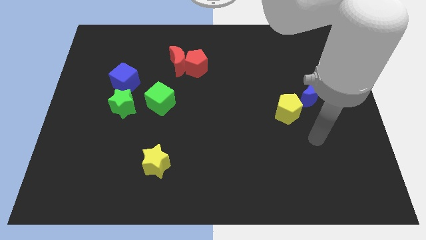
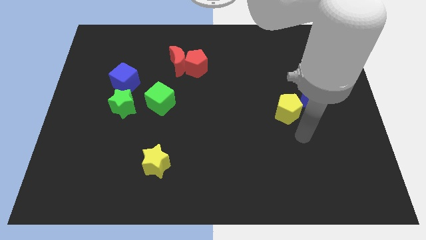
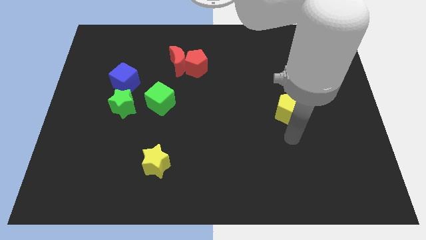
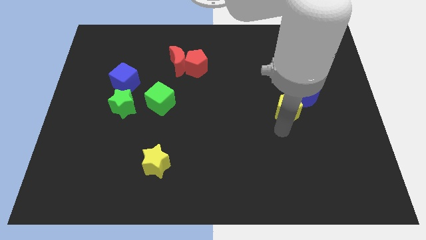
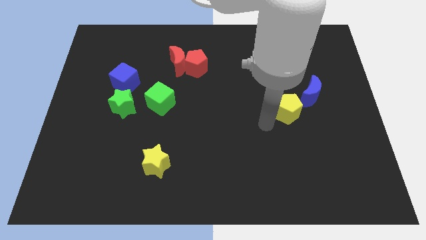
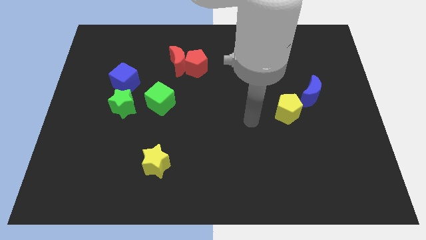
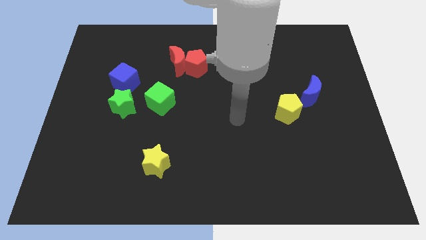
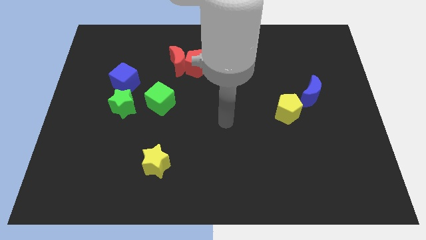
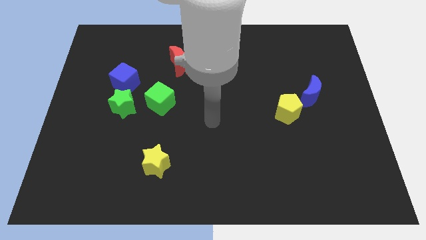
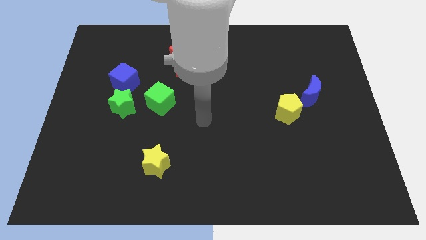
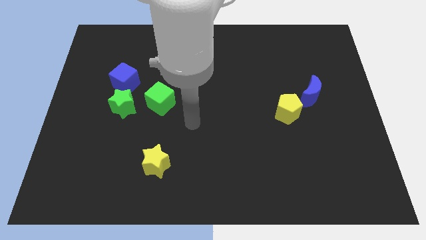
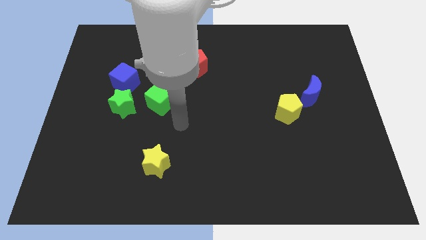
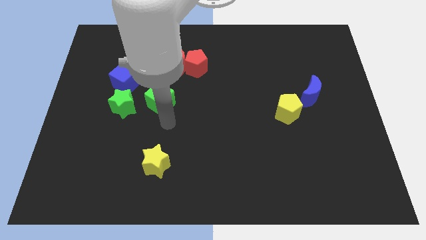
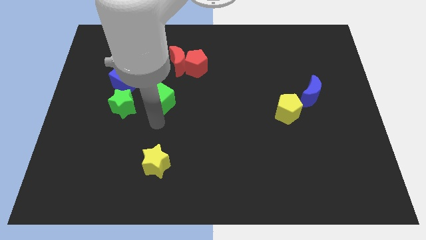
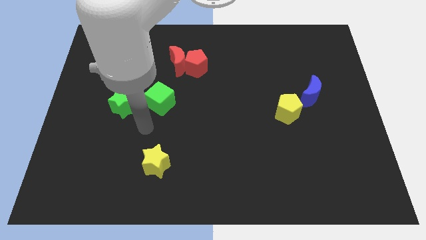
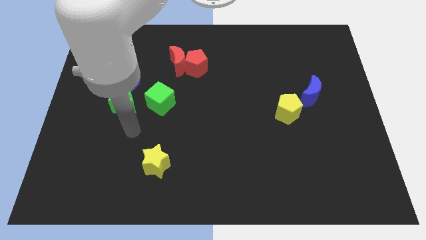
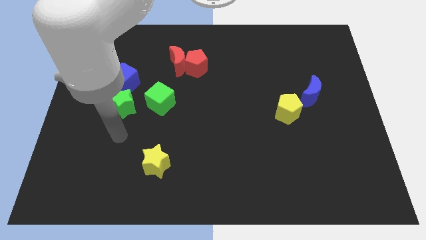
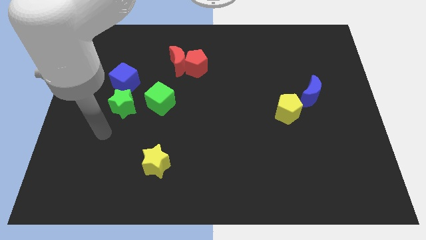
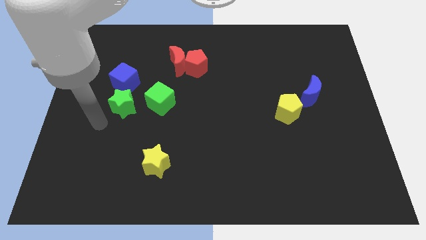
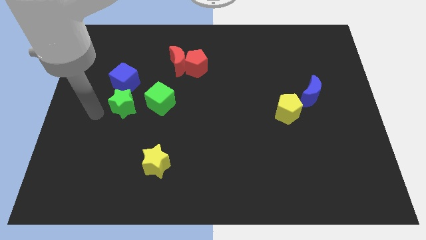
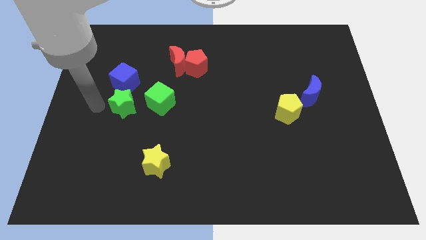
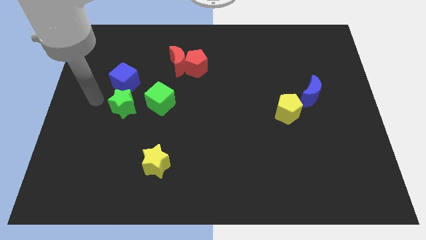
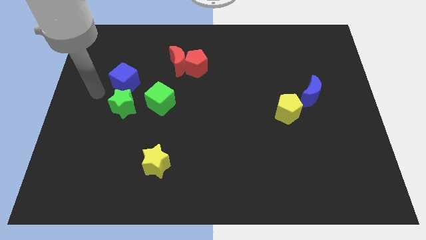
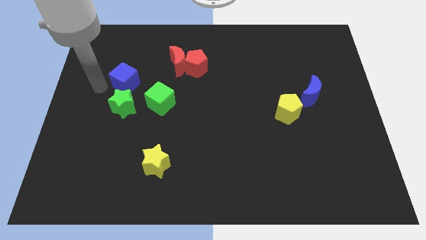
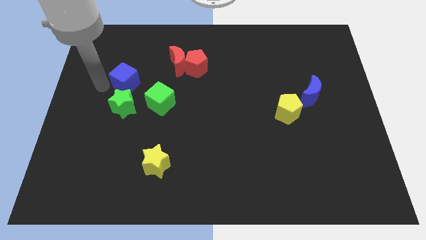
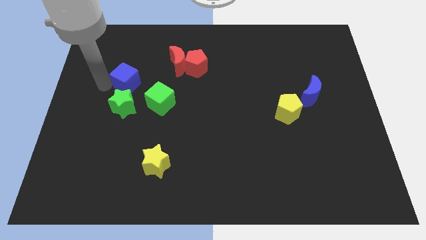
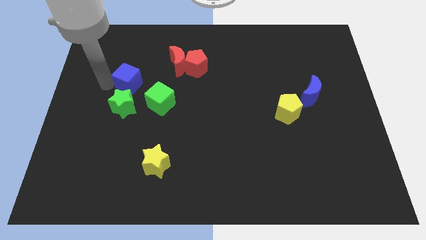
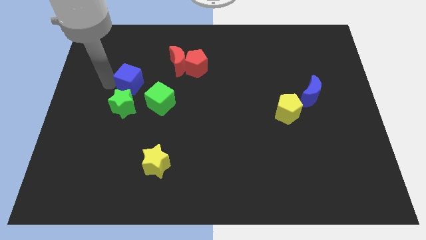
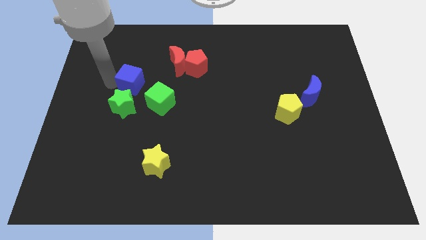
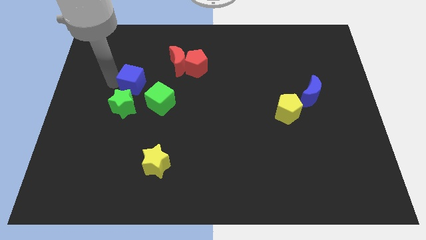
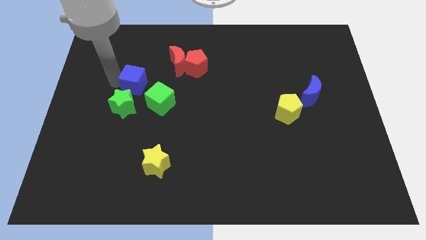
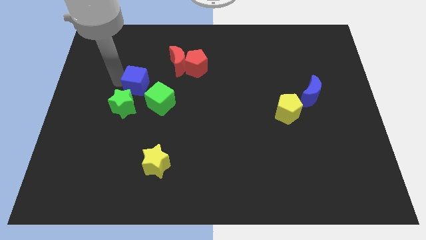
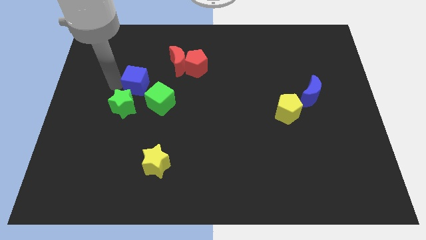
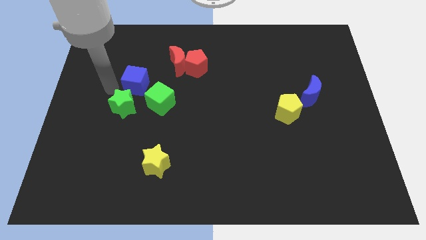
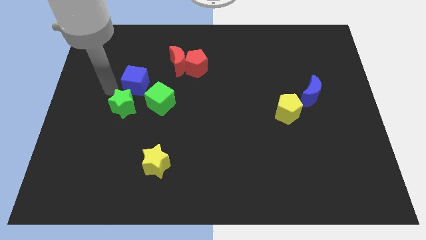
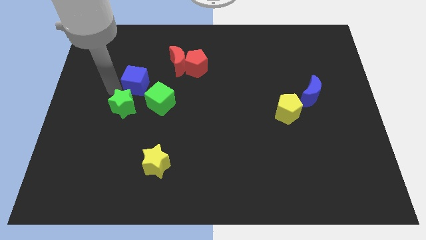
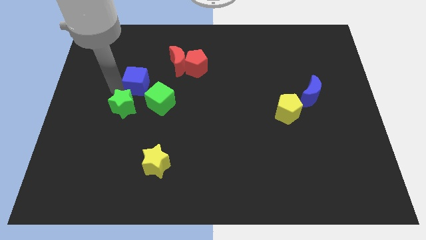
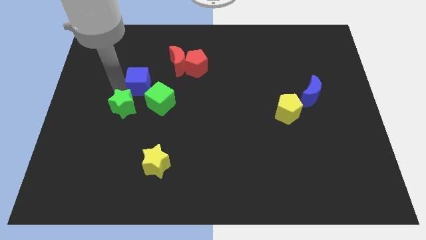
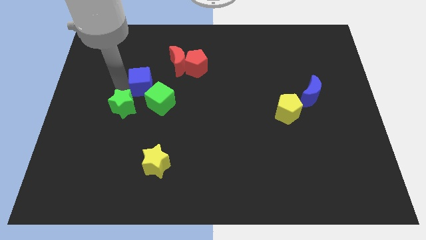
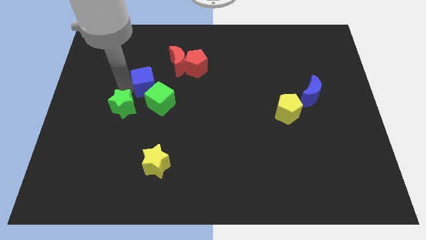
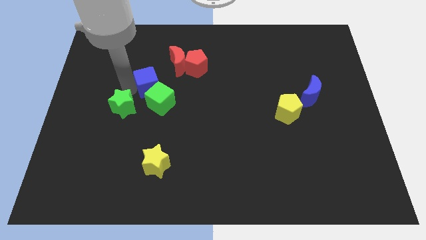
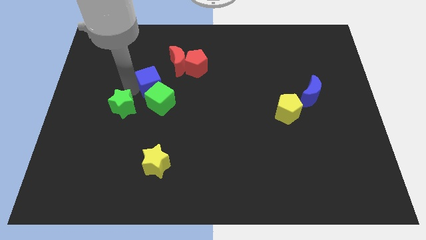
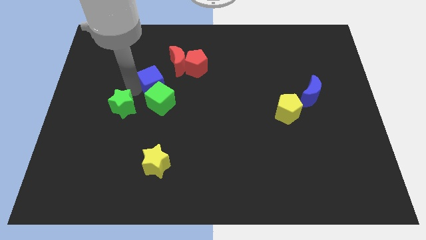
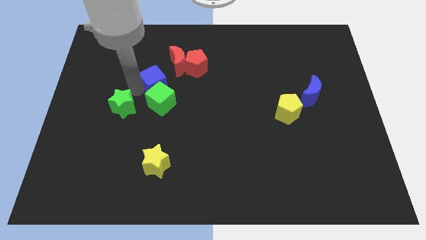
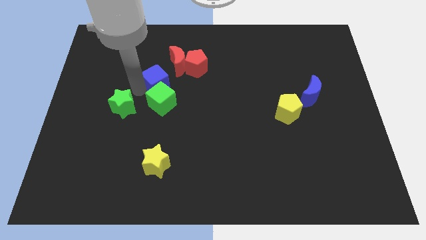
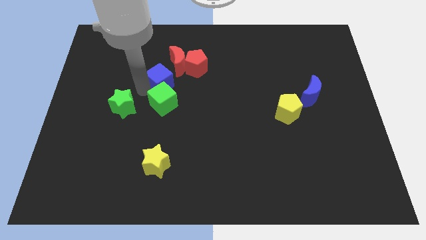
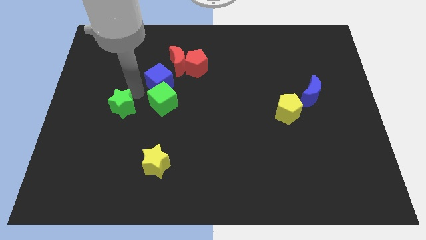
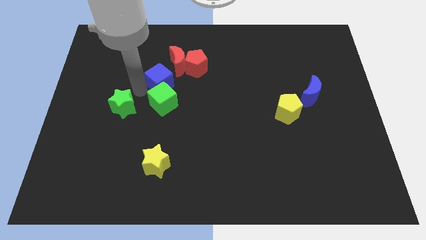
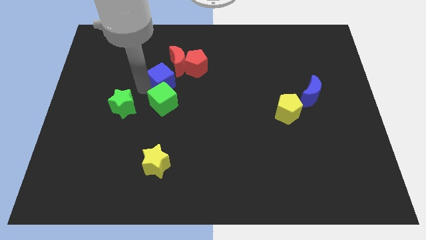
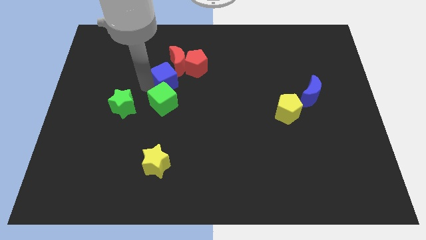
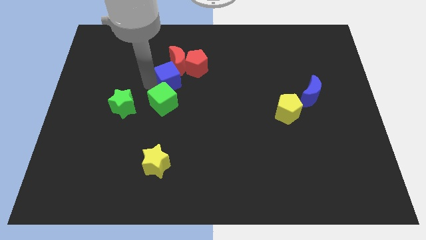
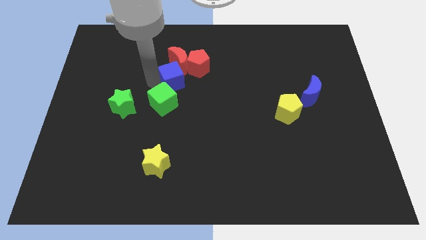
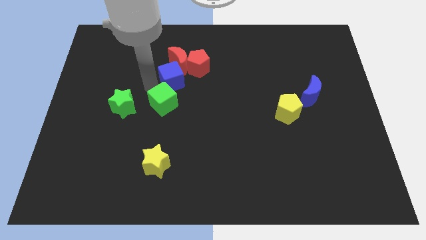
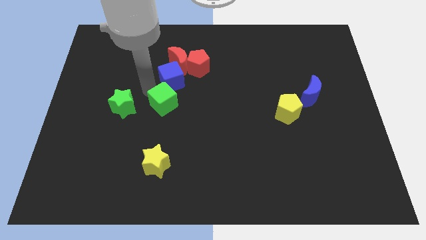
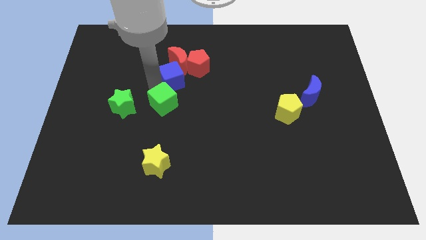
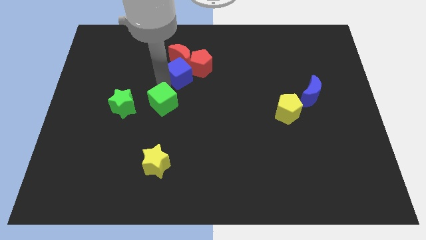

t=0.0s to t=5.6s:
put the blue cube towards the red pentagon

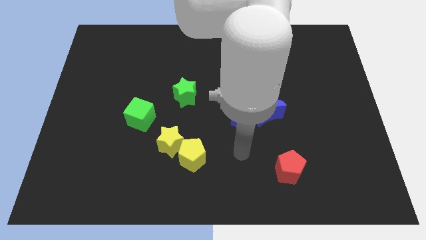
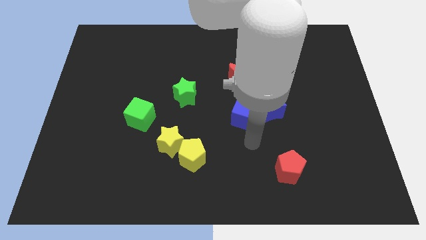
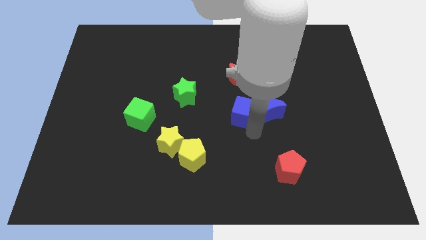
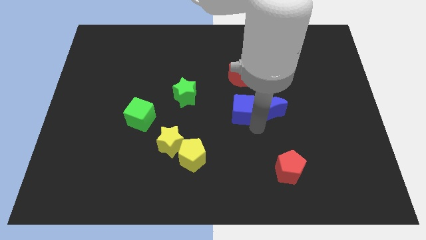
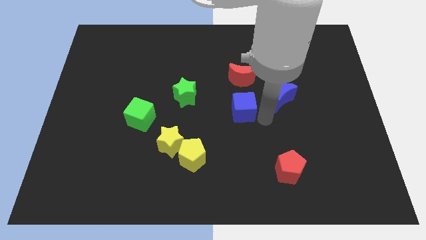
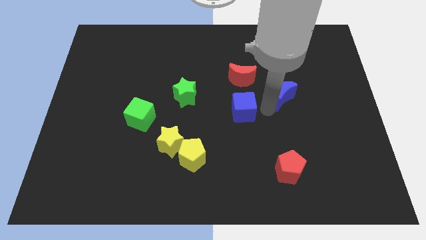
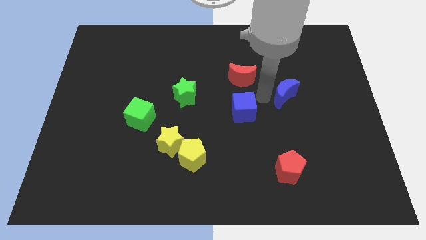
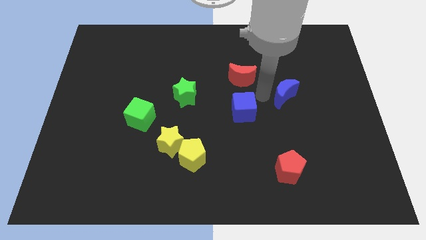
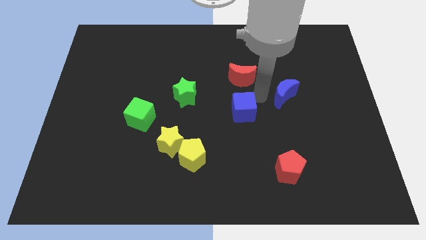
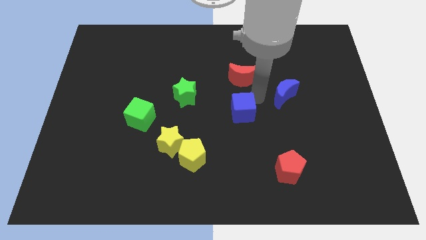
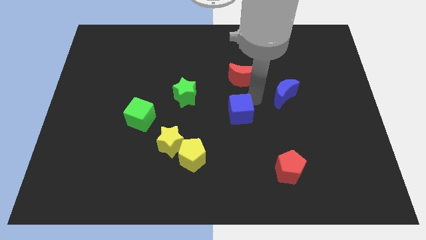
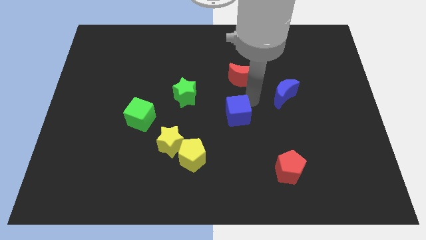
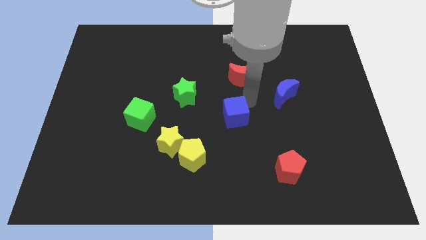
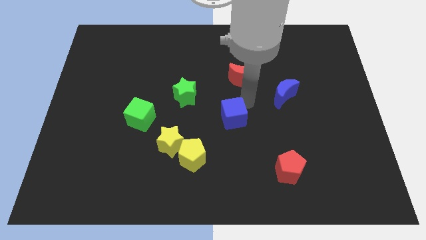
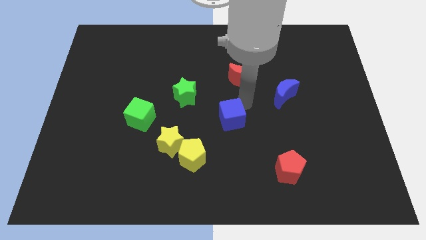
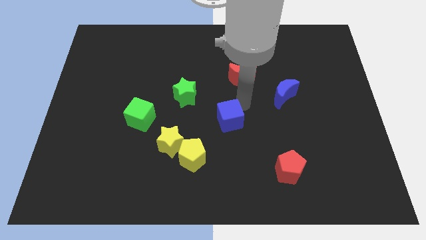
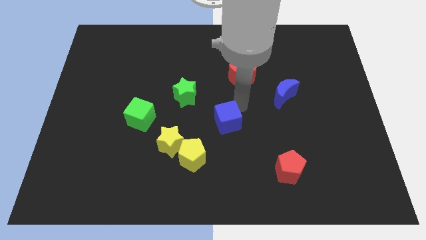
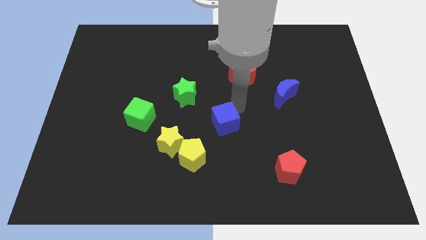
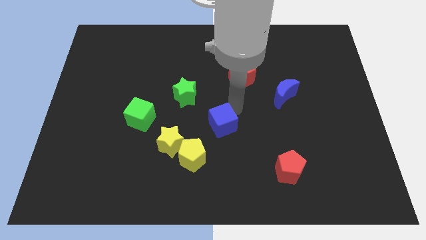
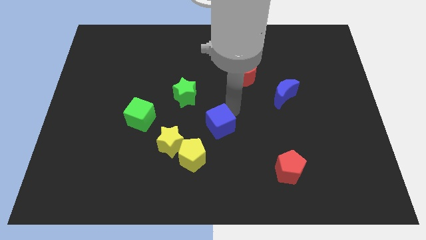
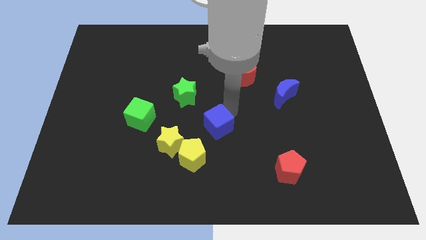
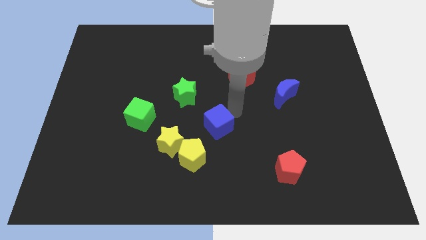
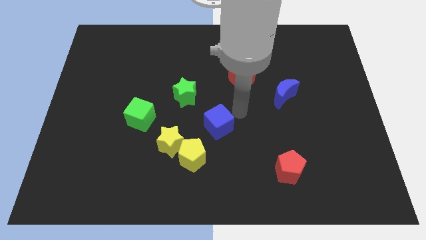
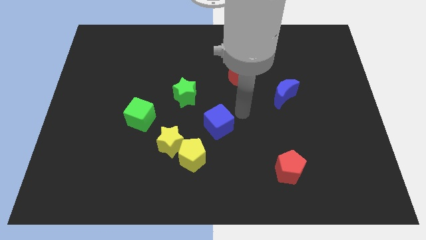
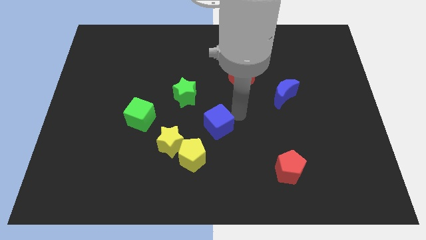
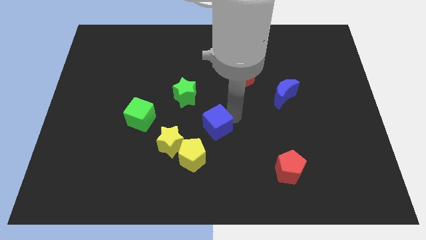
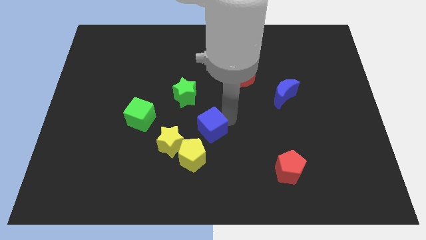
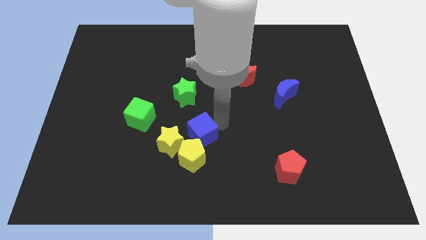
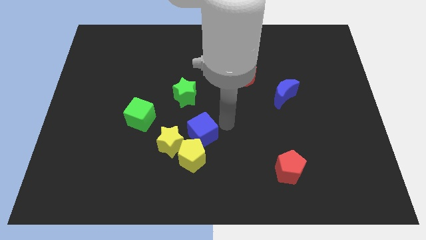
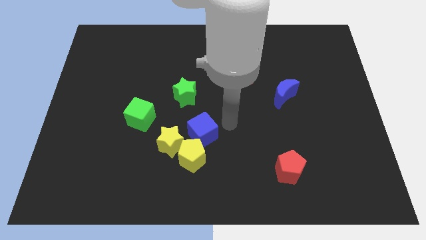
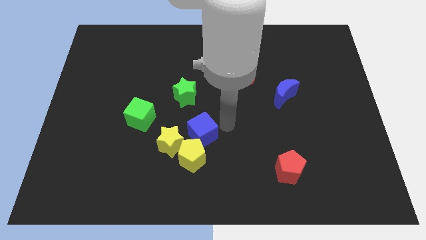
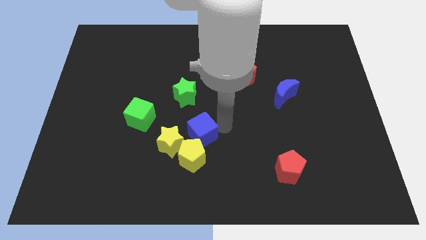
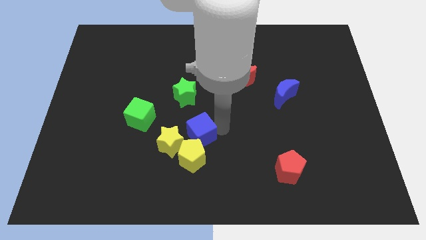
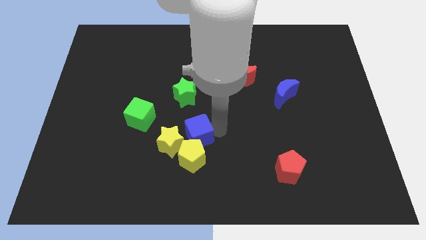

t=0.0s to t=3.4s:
push the blue cube towards the yellow star
